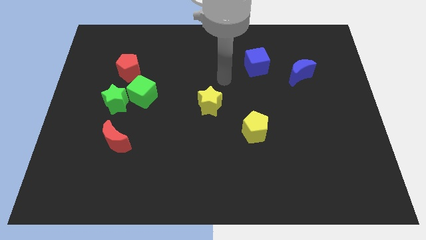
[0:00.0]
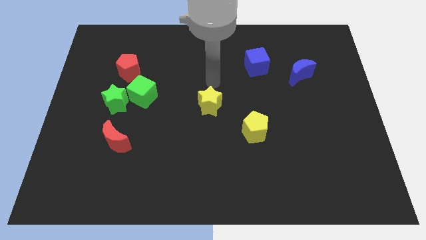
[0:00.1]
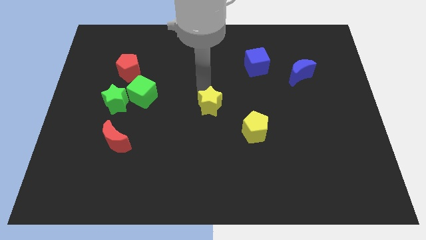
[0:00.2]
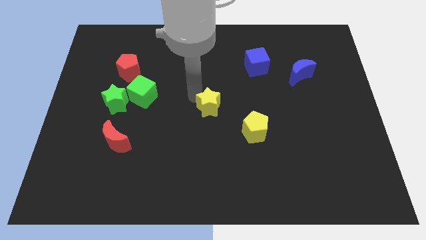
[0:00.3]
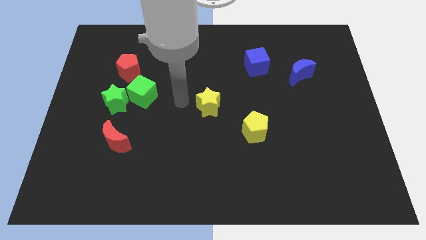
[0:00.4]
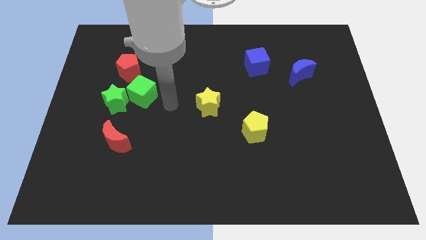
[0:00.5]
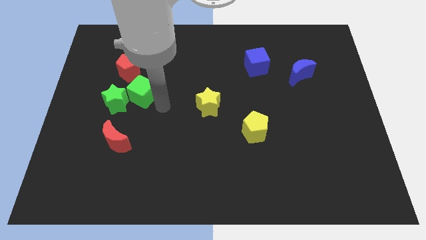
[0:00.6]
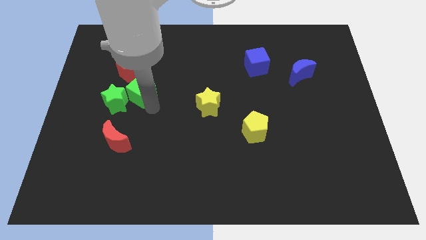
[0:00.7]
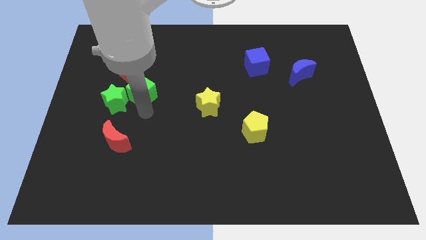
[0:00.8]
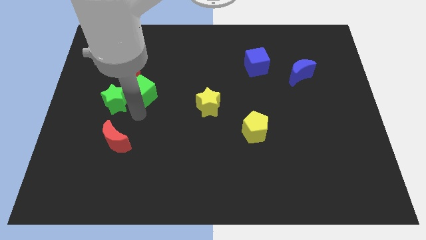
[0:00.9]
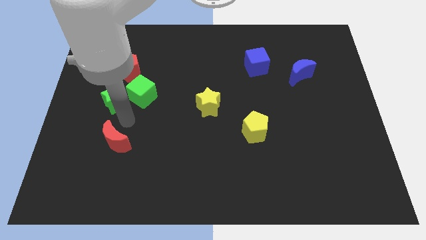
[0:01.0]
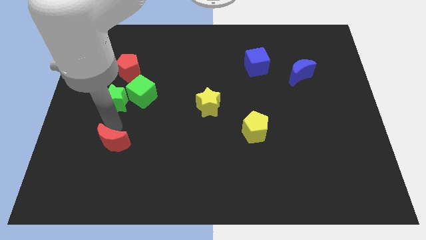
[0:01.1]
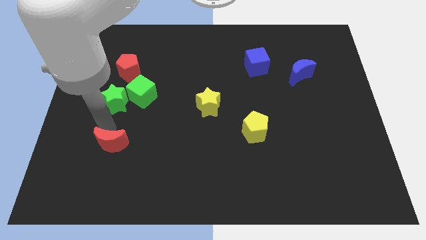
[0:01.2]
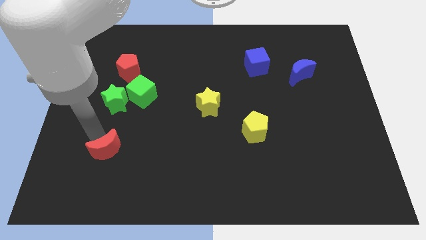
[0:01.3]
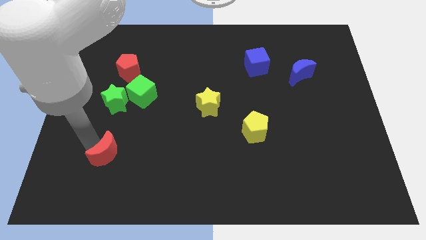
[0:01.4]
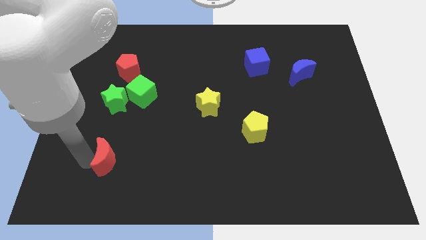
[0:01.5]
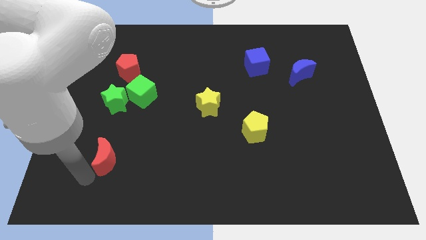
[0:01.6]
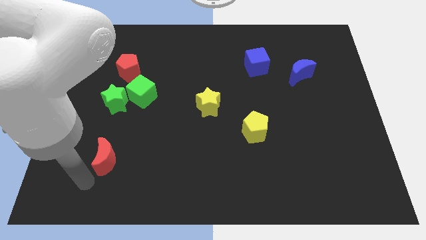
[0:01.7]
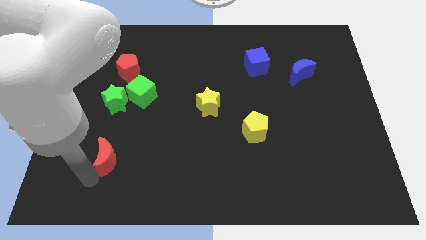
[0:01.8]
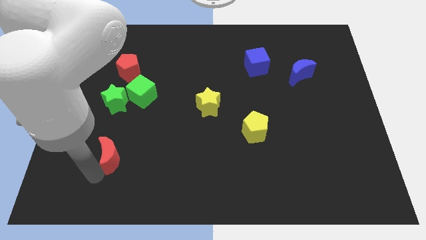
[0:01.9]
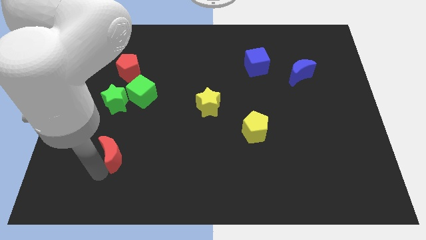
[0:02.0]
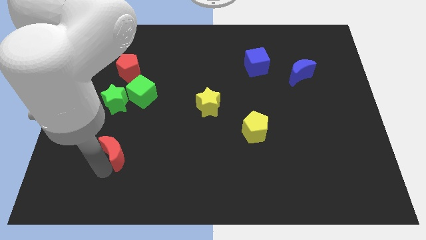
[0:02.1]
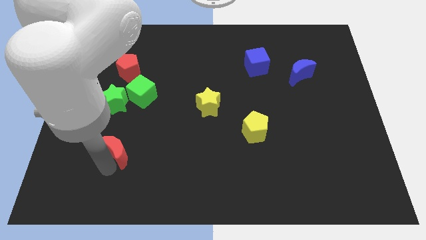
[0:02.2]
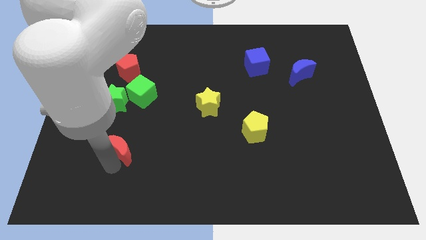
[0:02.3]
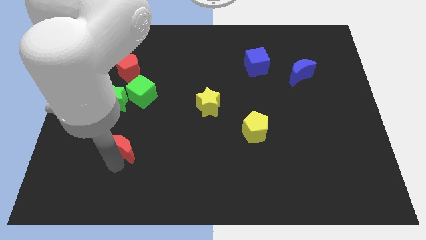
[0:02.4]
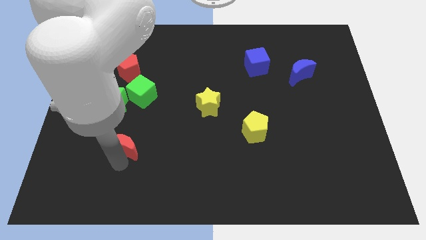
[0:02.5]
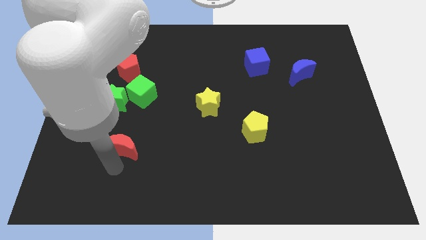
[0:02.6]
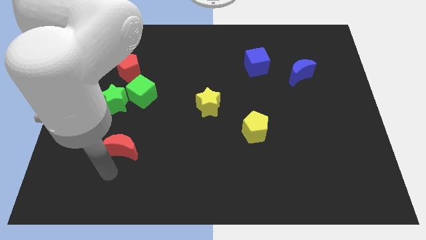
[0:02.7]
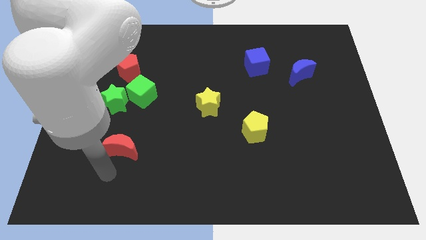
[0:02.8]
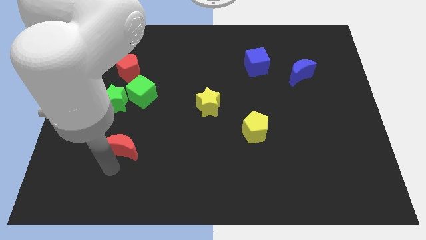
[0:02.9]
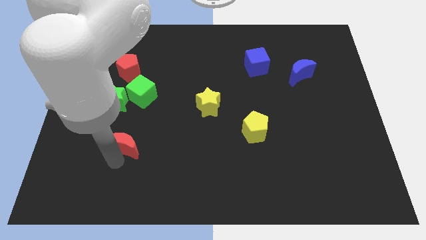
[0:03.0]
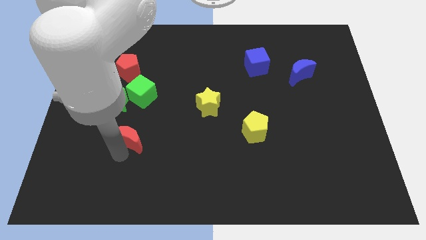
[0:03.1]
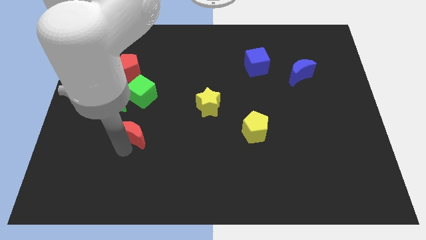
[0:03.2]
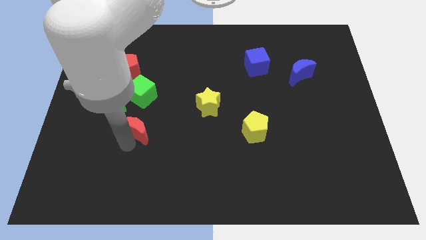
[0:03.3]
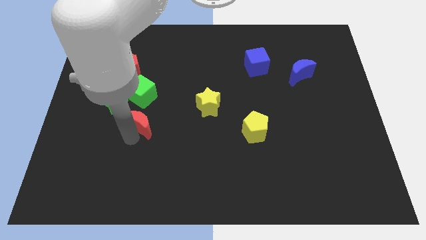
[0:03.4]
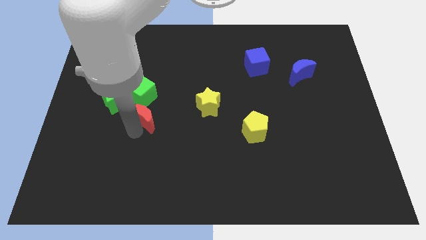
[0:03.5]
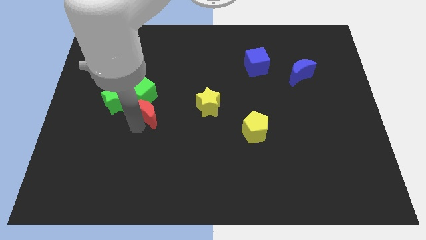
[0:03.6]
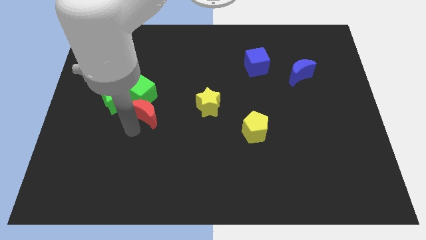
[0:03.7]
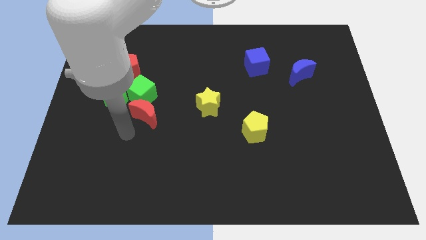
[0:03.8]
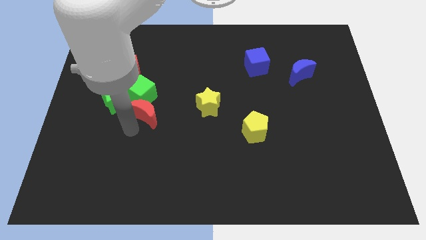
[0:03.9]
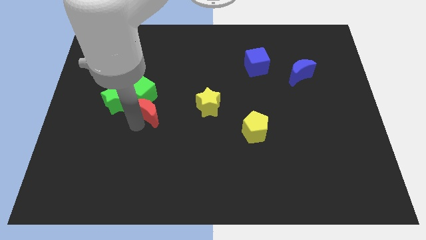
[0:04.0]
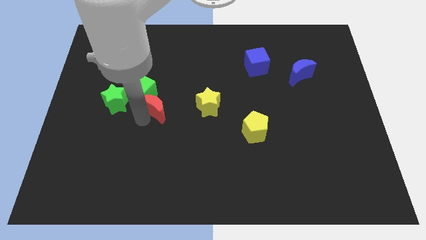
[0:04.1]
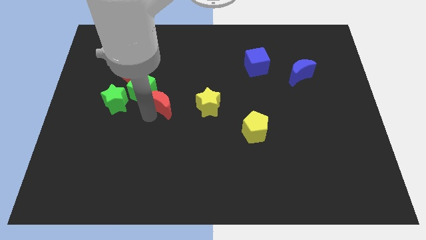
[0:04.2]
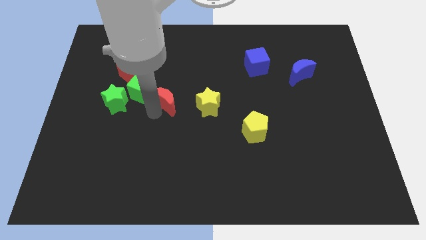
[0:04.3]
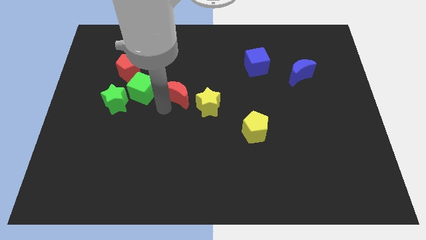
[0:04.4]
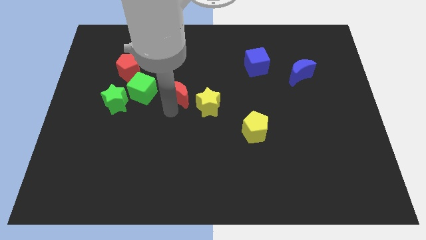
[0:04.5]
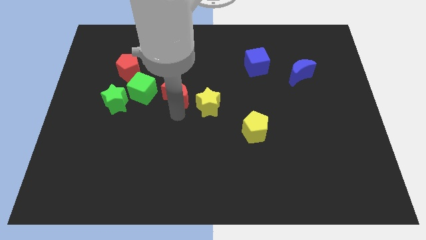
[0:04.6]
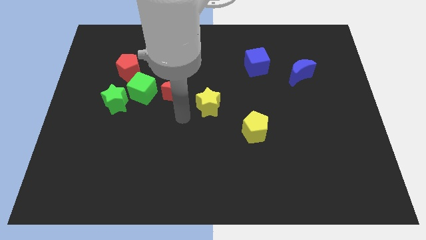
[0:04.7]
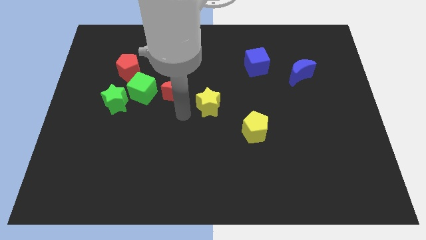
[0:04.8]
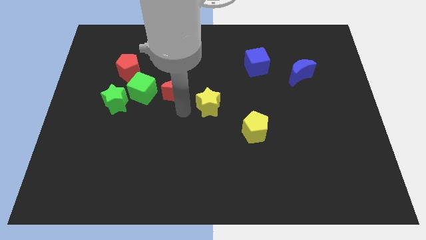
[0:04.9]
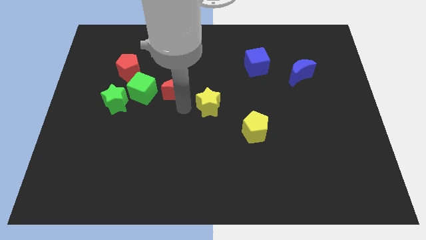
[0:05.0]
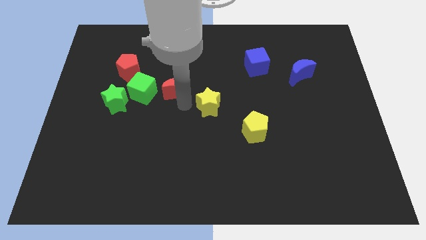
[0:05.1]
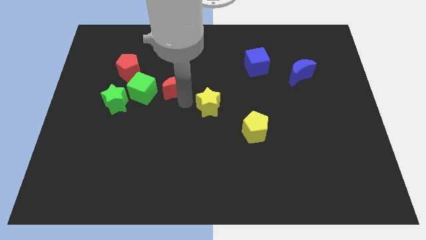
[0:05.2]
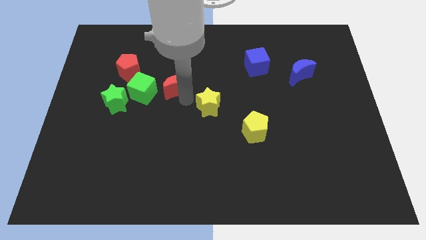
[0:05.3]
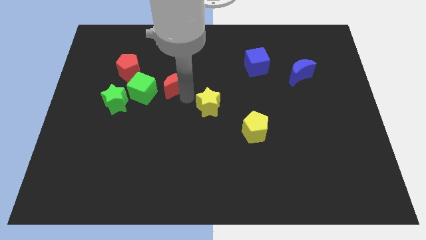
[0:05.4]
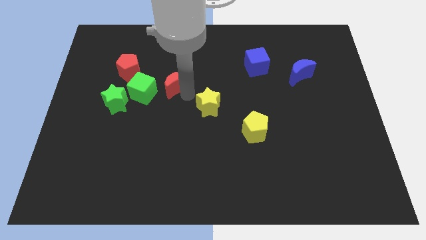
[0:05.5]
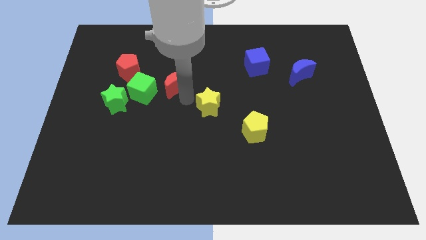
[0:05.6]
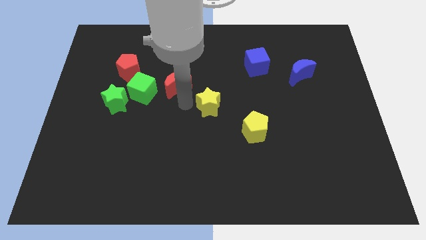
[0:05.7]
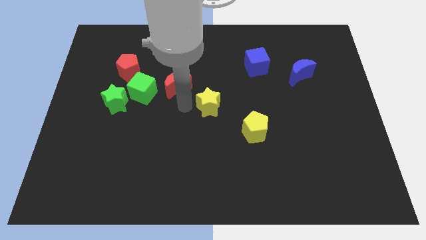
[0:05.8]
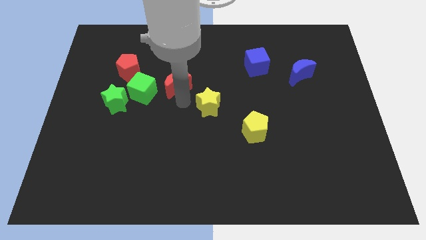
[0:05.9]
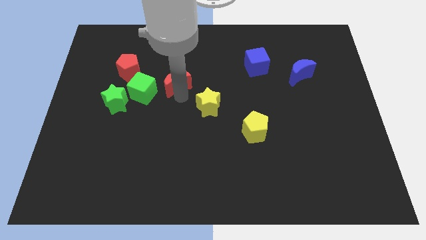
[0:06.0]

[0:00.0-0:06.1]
move the red moon just right of the red pentagon

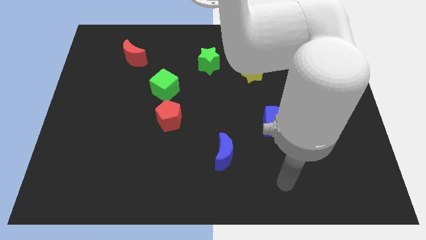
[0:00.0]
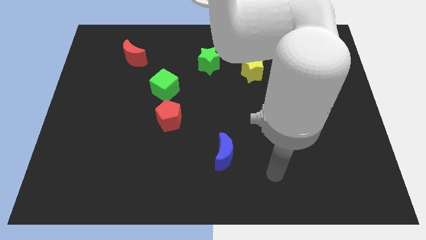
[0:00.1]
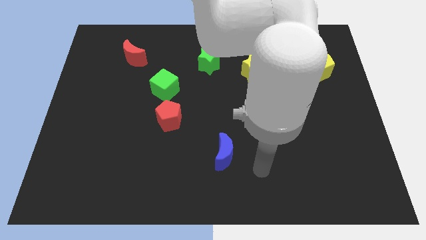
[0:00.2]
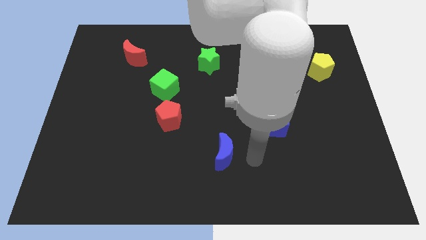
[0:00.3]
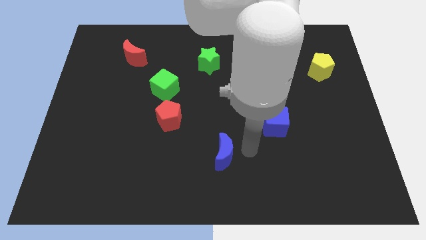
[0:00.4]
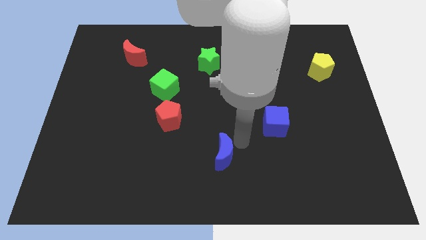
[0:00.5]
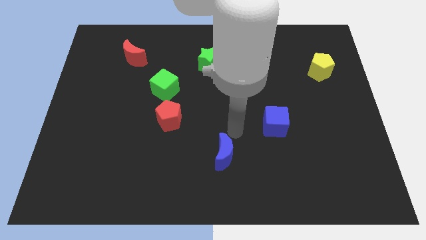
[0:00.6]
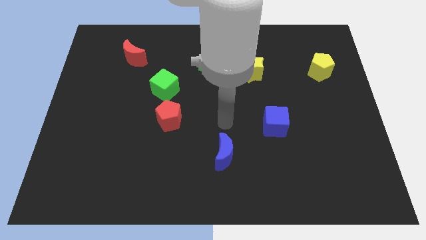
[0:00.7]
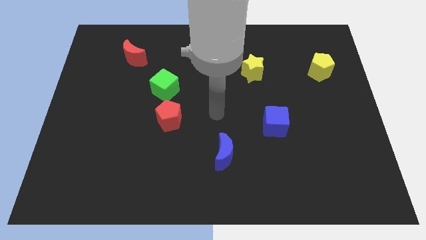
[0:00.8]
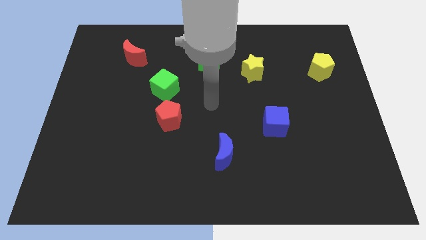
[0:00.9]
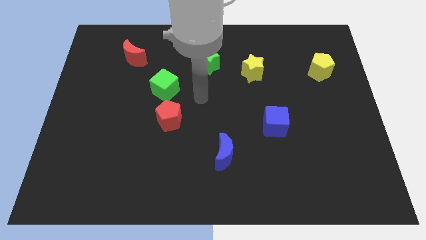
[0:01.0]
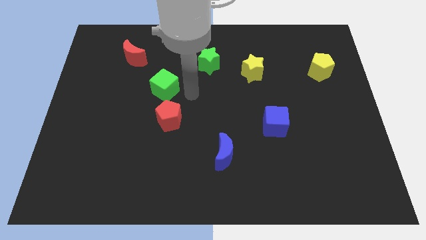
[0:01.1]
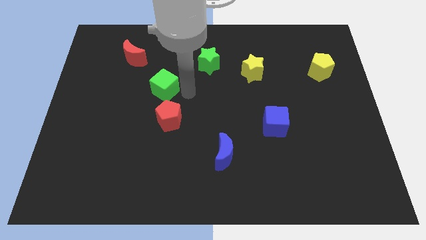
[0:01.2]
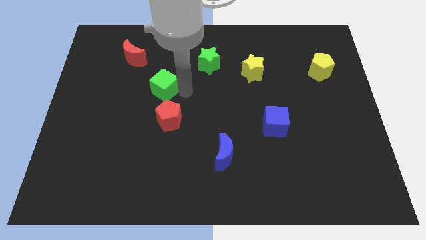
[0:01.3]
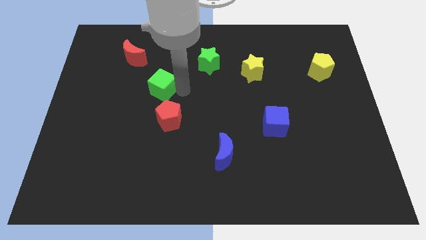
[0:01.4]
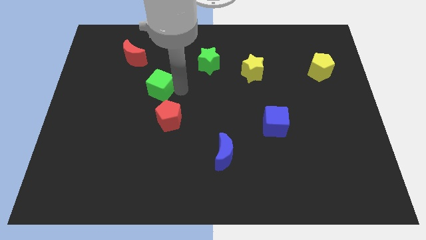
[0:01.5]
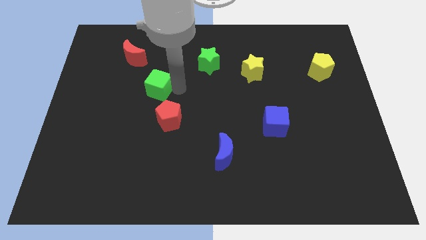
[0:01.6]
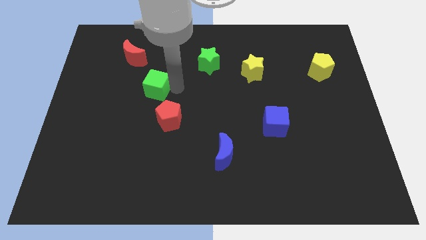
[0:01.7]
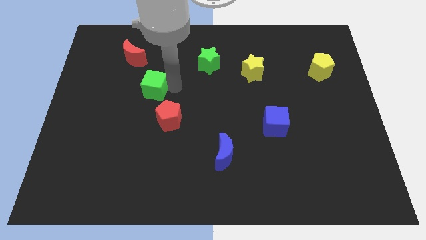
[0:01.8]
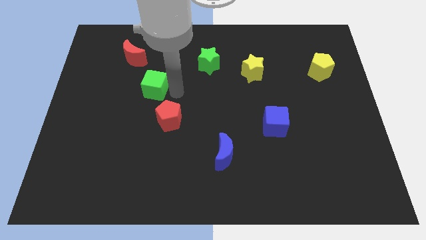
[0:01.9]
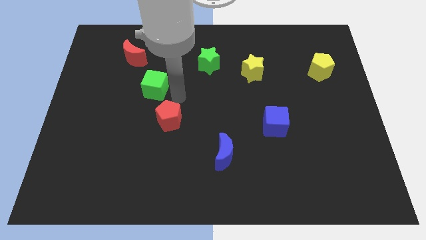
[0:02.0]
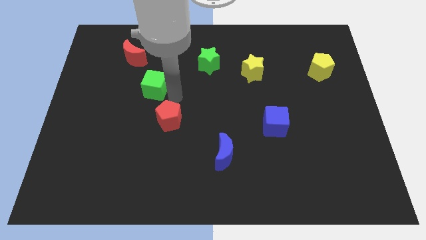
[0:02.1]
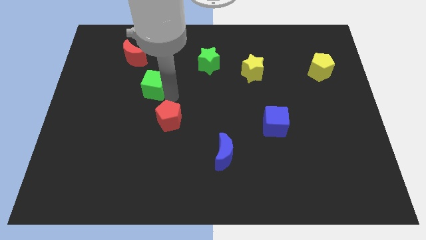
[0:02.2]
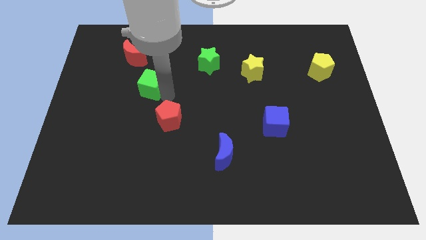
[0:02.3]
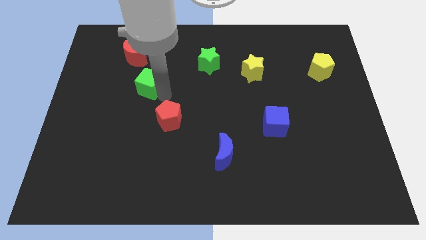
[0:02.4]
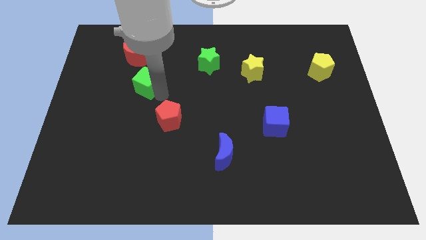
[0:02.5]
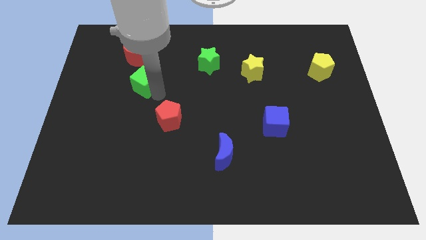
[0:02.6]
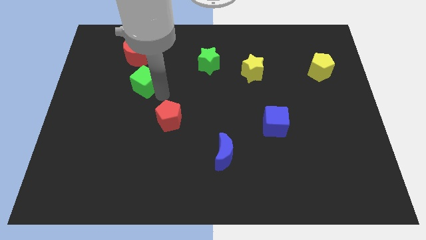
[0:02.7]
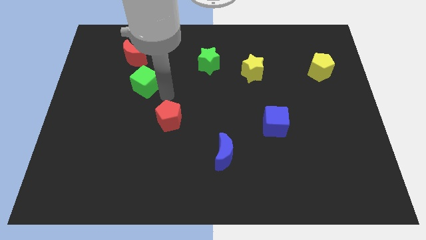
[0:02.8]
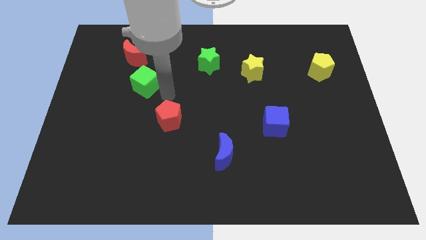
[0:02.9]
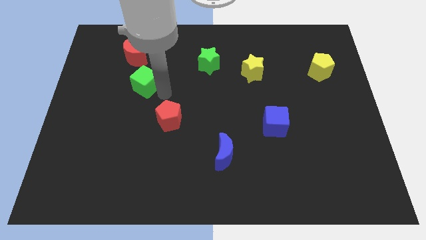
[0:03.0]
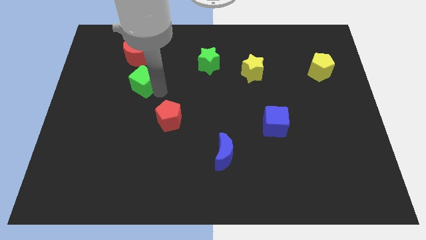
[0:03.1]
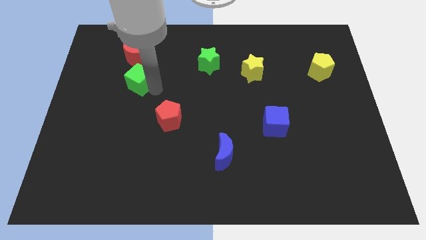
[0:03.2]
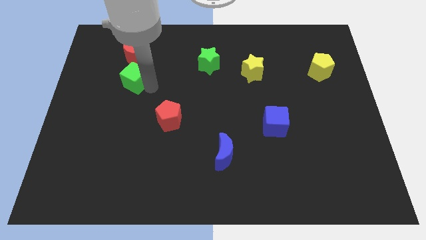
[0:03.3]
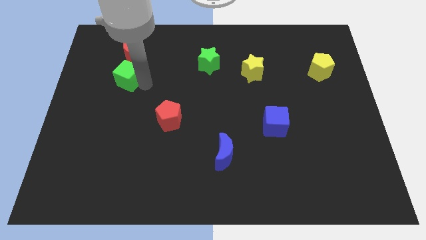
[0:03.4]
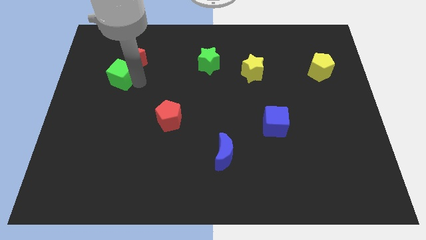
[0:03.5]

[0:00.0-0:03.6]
put the green cube diagonally down and to the left of the red moon
